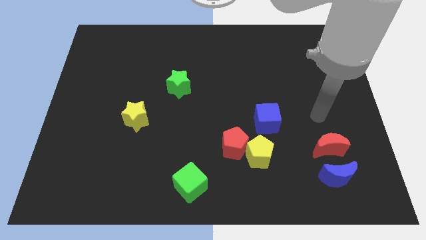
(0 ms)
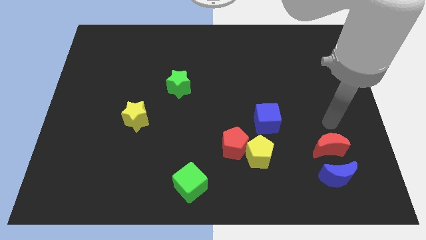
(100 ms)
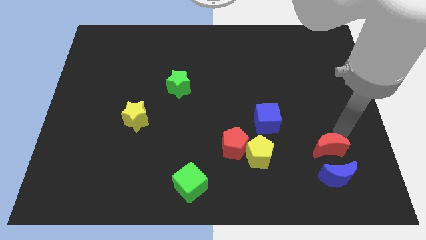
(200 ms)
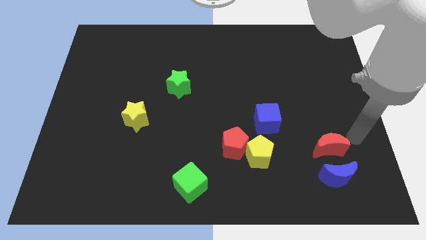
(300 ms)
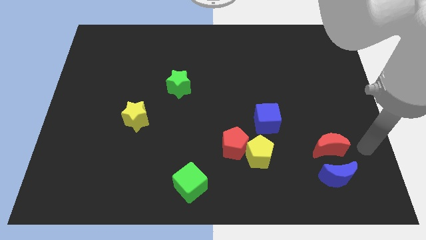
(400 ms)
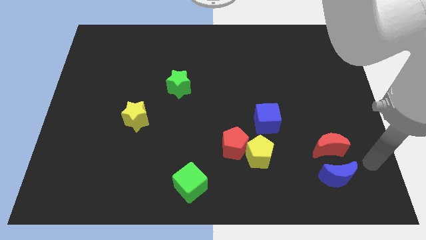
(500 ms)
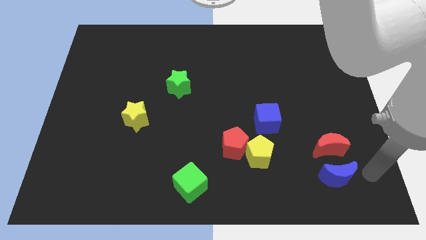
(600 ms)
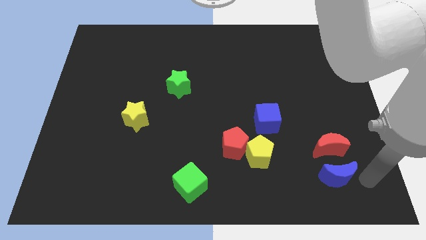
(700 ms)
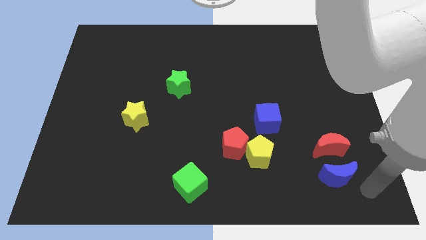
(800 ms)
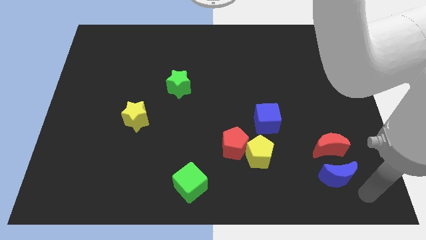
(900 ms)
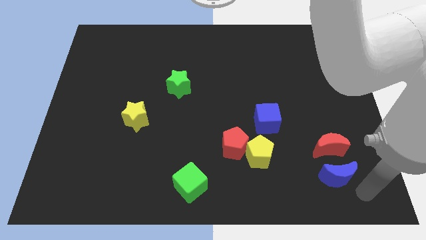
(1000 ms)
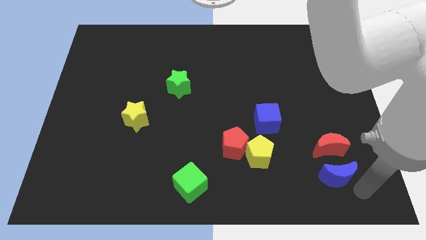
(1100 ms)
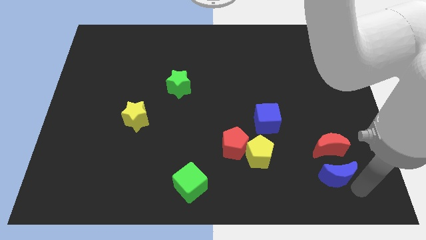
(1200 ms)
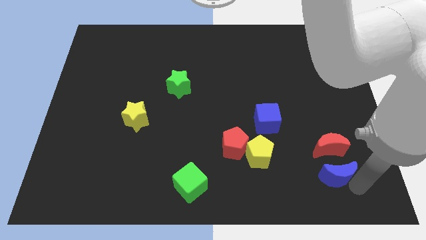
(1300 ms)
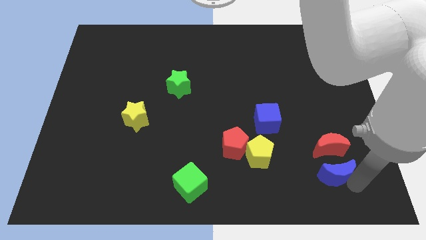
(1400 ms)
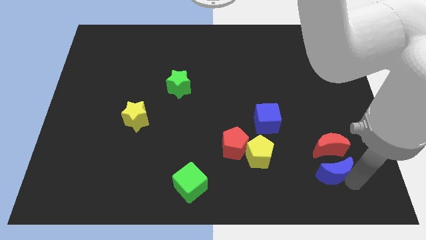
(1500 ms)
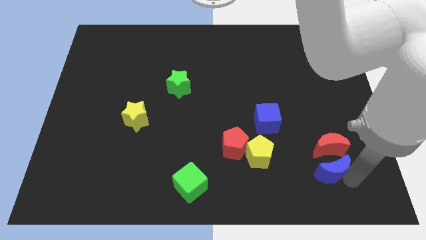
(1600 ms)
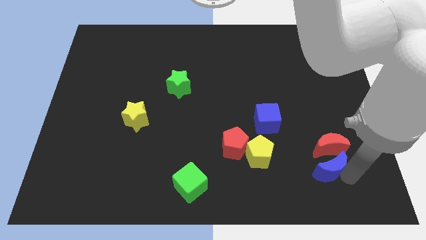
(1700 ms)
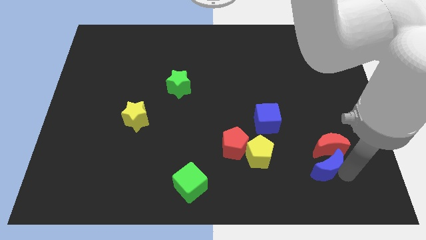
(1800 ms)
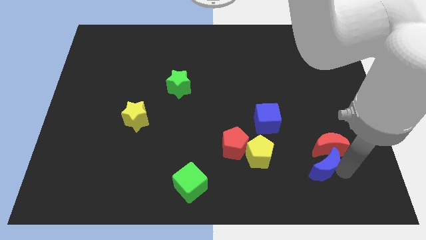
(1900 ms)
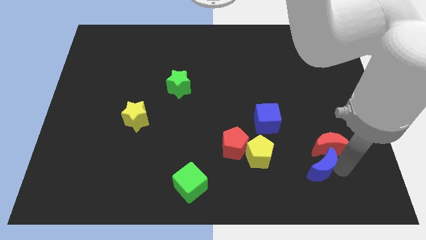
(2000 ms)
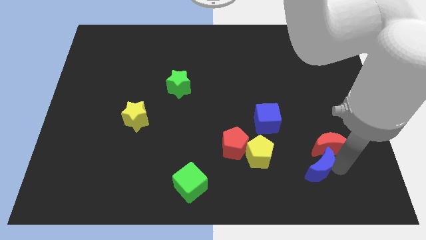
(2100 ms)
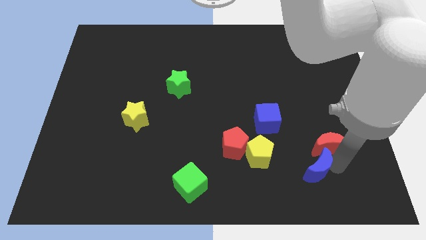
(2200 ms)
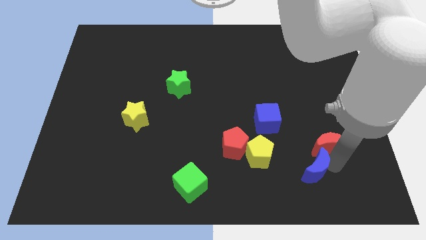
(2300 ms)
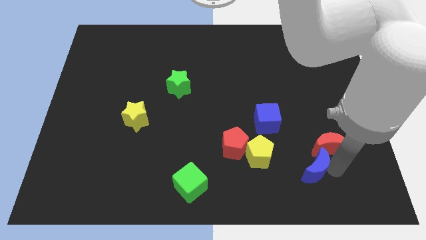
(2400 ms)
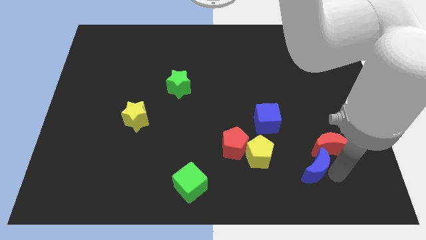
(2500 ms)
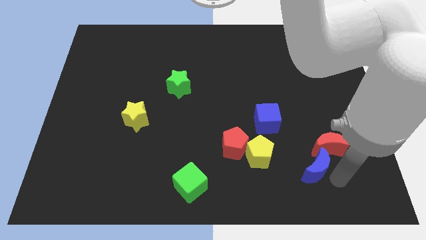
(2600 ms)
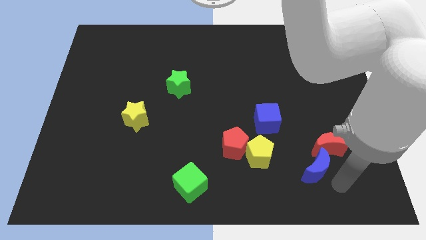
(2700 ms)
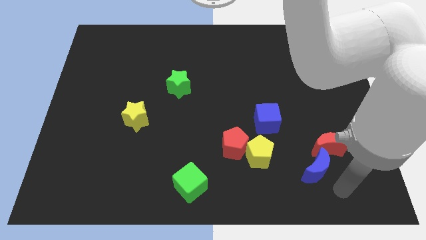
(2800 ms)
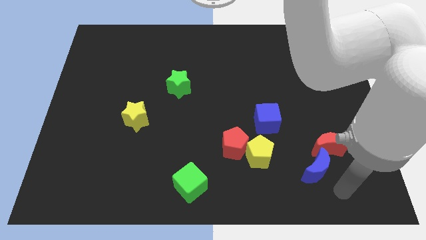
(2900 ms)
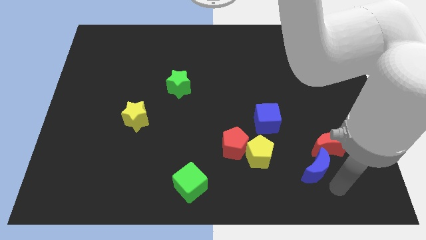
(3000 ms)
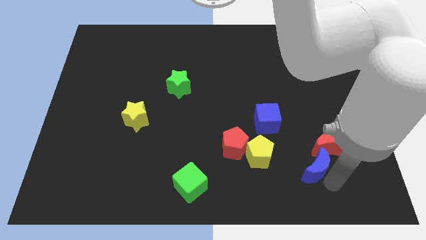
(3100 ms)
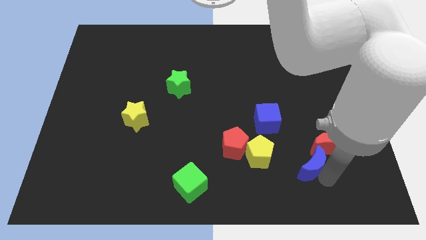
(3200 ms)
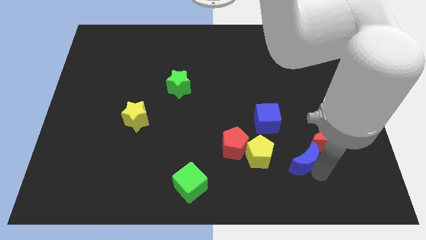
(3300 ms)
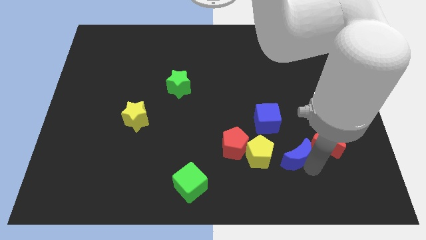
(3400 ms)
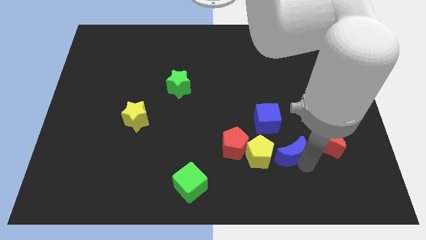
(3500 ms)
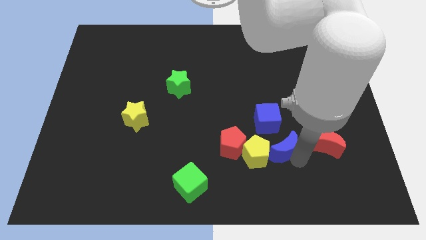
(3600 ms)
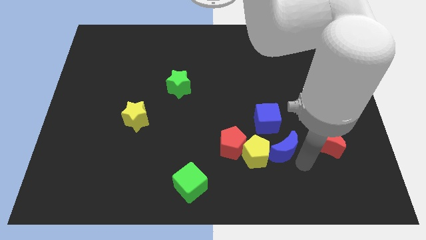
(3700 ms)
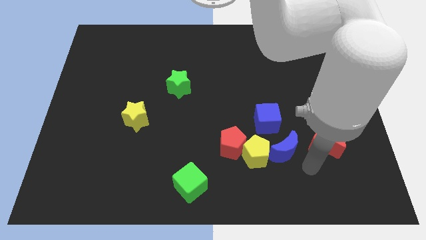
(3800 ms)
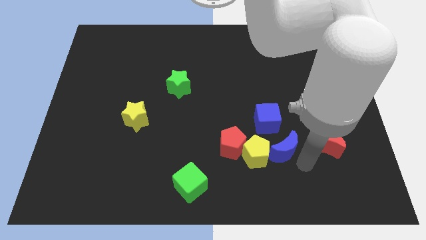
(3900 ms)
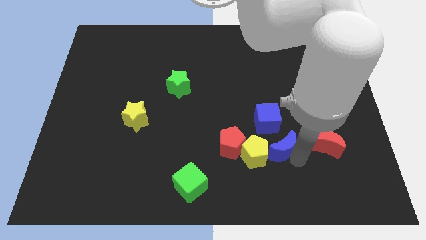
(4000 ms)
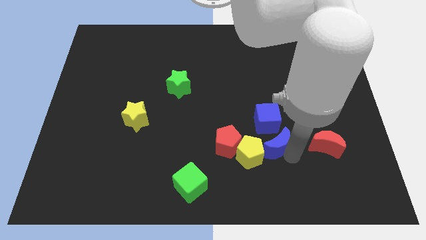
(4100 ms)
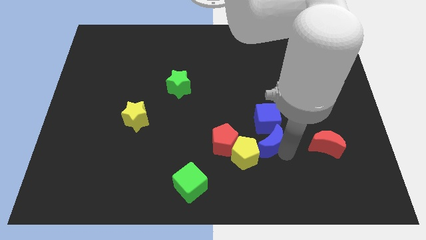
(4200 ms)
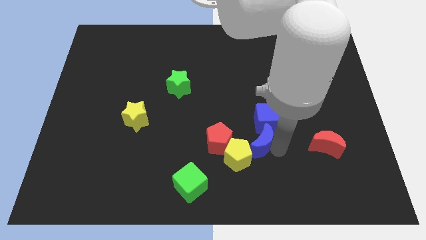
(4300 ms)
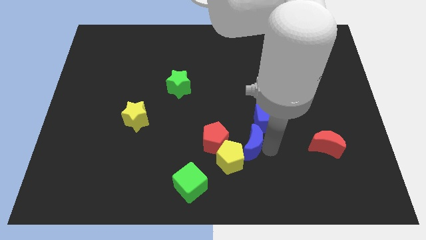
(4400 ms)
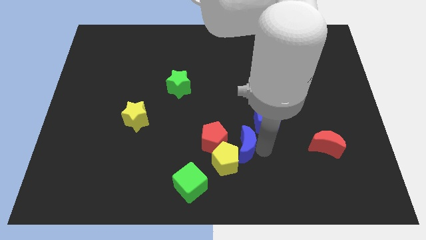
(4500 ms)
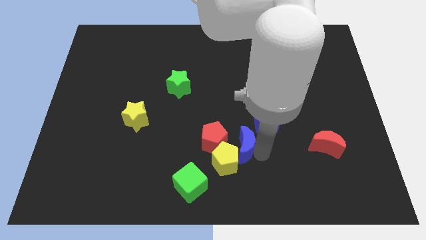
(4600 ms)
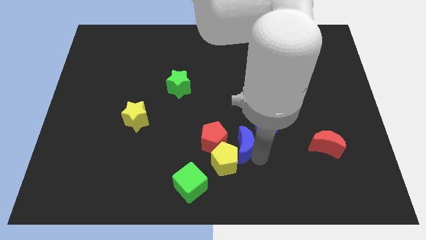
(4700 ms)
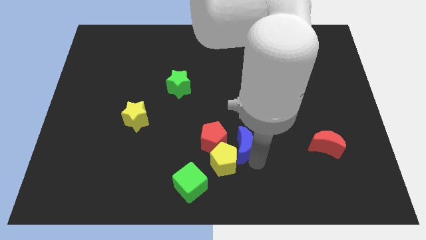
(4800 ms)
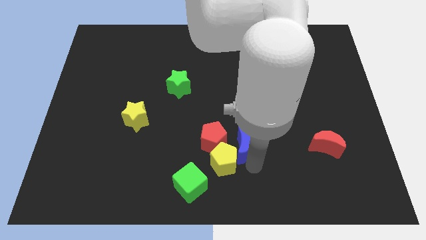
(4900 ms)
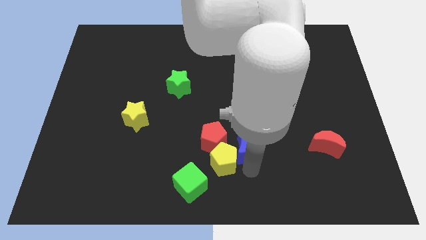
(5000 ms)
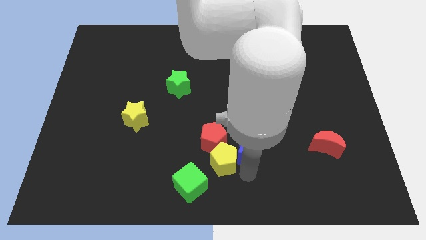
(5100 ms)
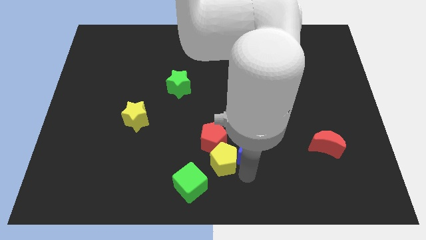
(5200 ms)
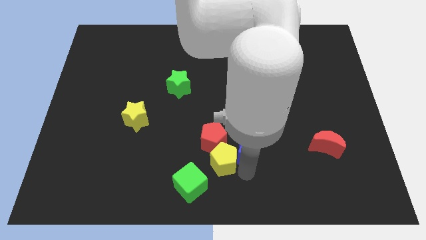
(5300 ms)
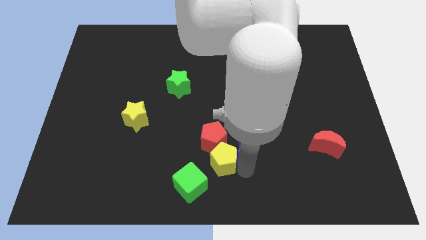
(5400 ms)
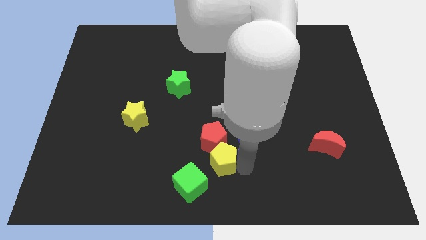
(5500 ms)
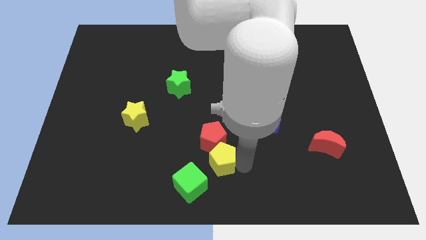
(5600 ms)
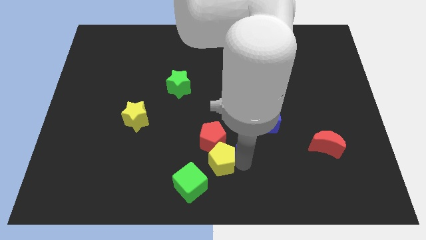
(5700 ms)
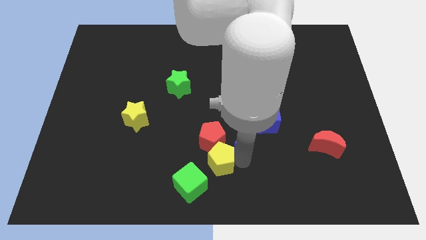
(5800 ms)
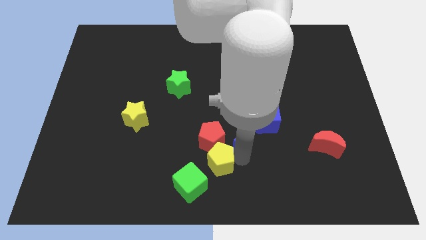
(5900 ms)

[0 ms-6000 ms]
put the blue moon to the left side of the blue cube
